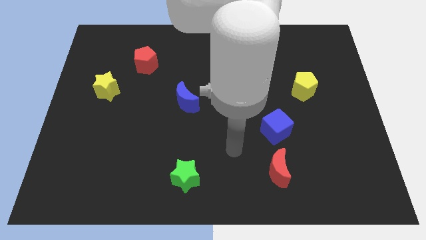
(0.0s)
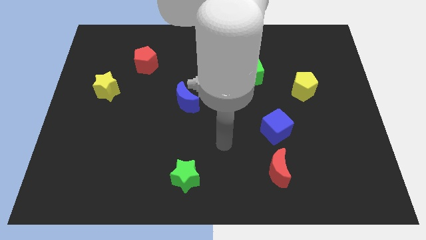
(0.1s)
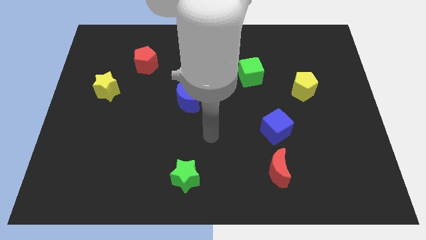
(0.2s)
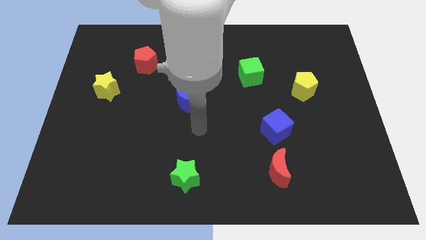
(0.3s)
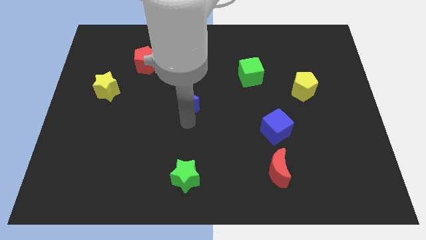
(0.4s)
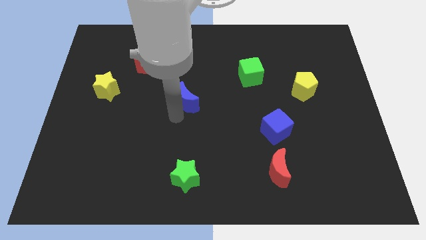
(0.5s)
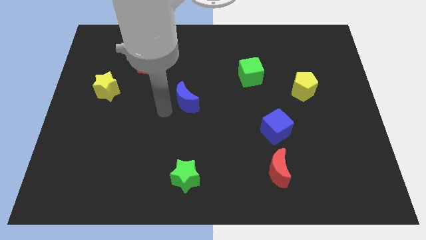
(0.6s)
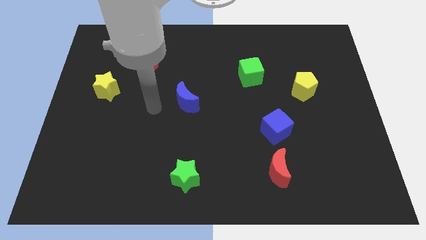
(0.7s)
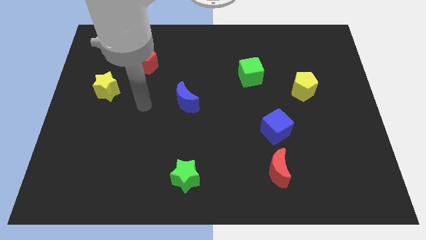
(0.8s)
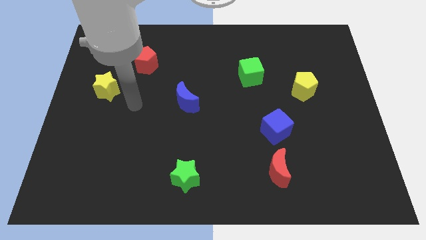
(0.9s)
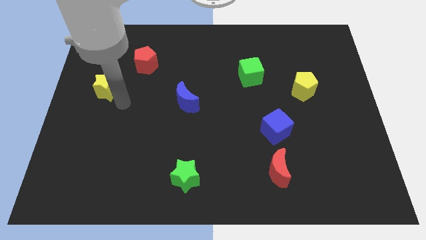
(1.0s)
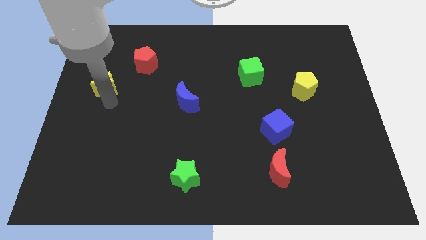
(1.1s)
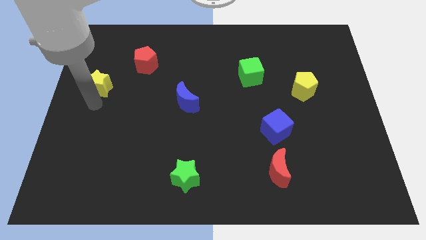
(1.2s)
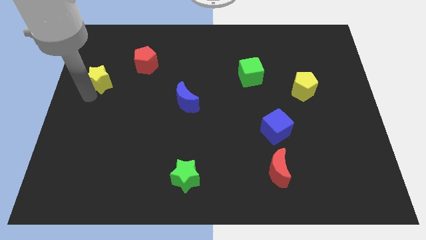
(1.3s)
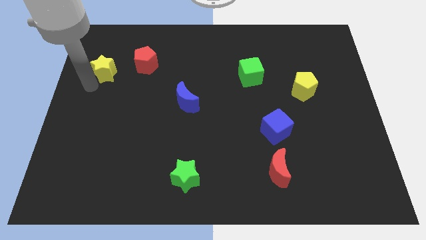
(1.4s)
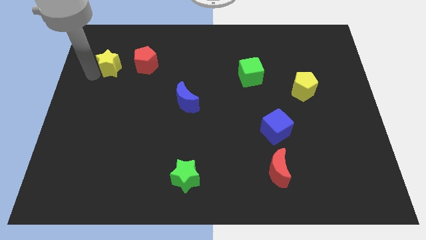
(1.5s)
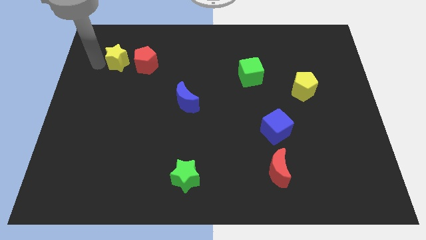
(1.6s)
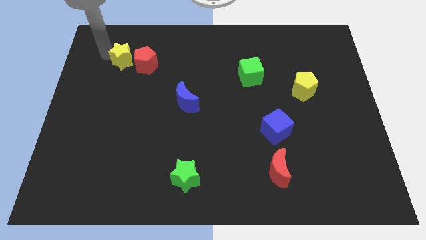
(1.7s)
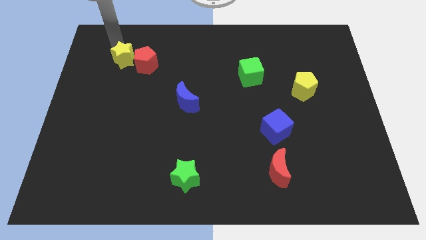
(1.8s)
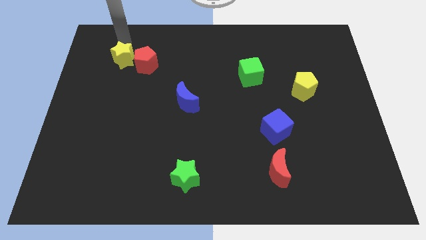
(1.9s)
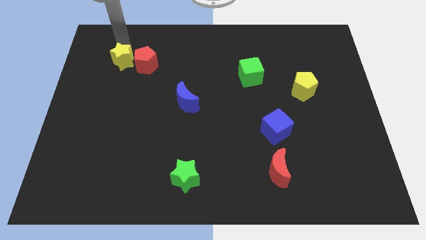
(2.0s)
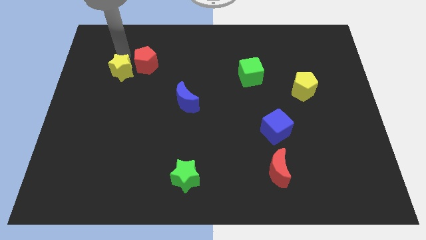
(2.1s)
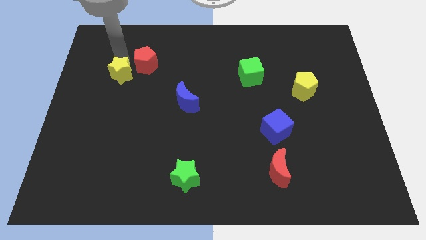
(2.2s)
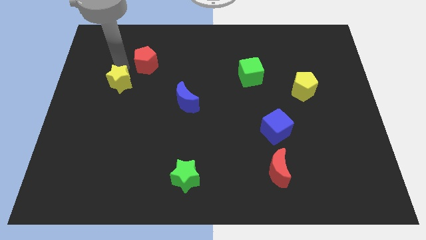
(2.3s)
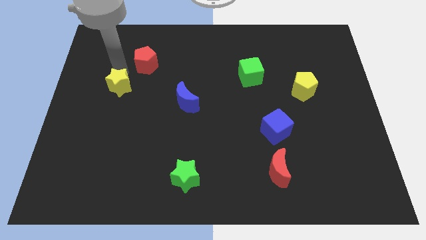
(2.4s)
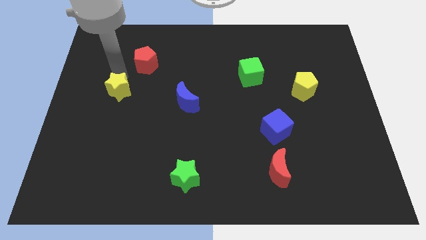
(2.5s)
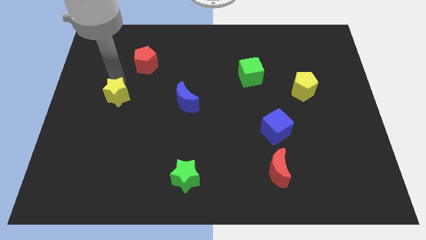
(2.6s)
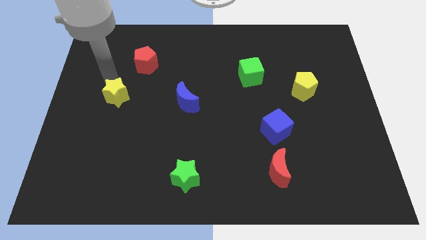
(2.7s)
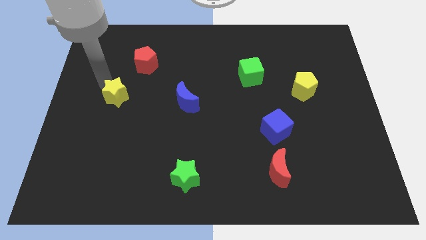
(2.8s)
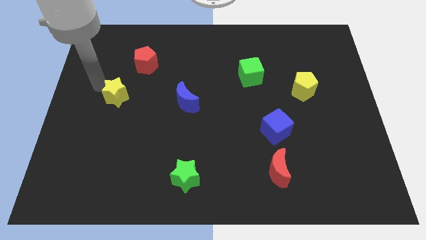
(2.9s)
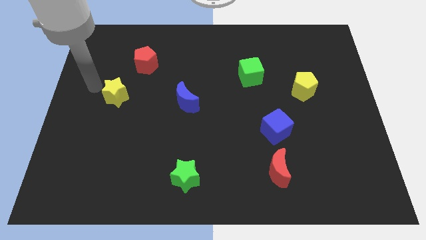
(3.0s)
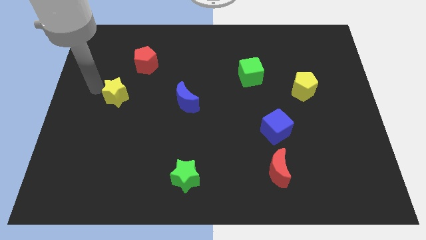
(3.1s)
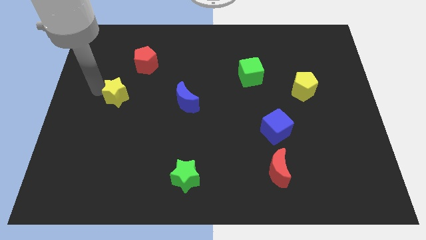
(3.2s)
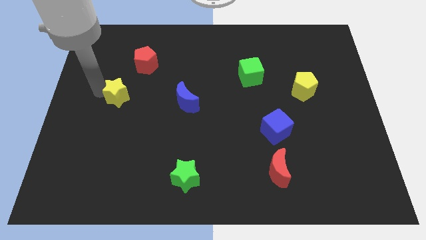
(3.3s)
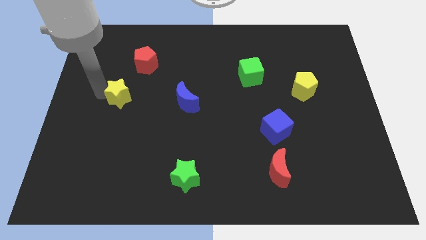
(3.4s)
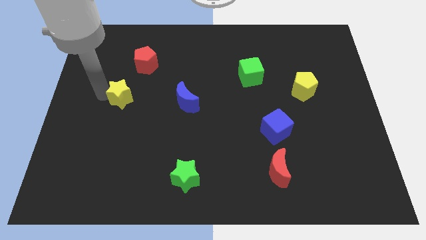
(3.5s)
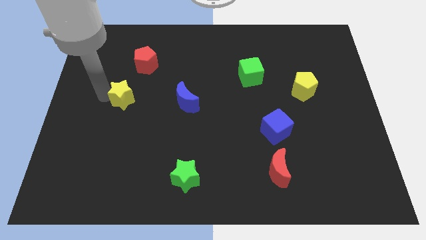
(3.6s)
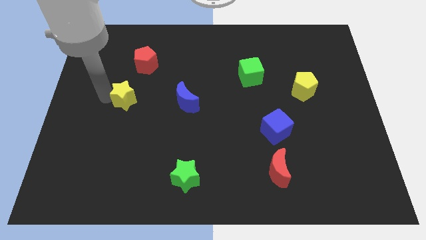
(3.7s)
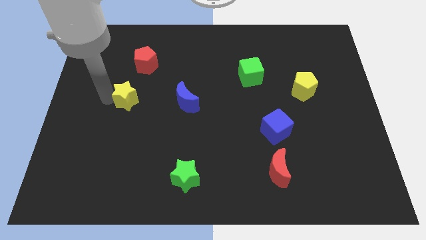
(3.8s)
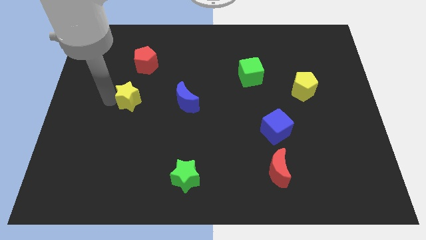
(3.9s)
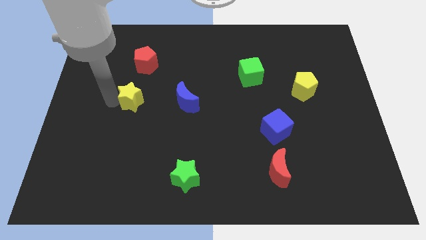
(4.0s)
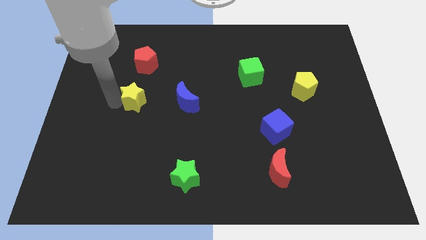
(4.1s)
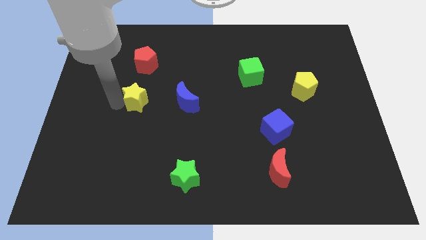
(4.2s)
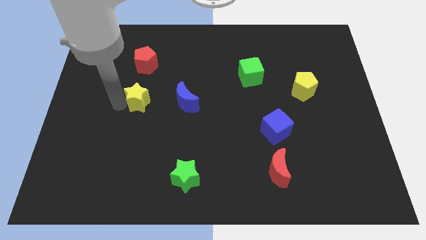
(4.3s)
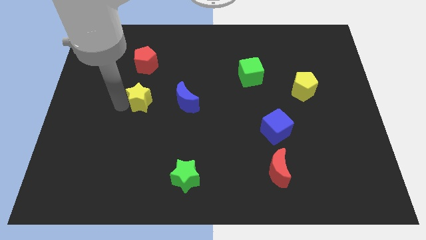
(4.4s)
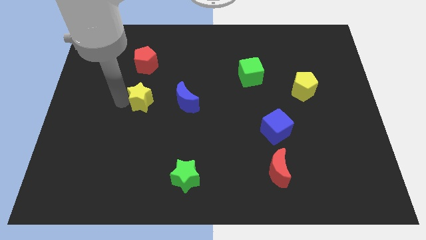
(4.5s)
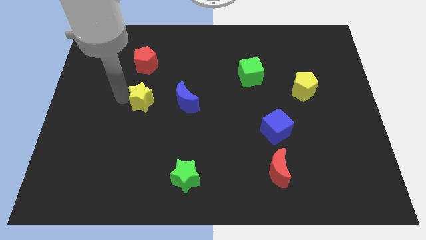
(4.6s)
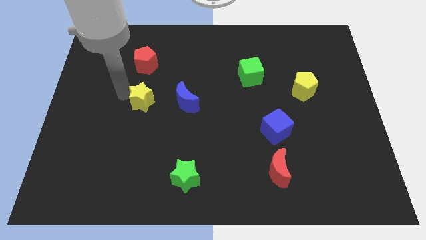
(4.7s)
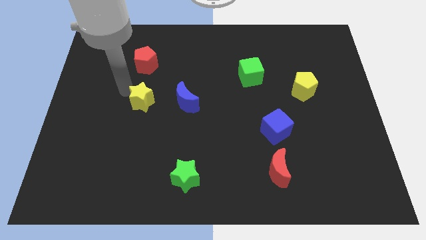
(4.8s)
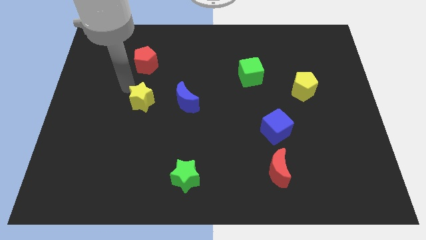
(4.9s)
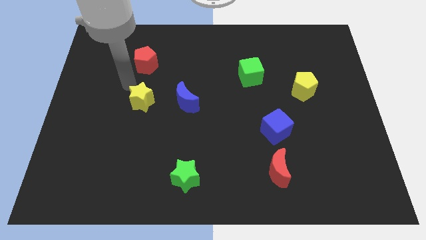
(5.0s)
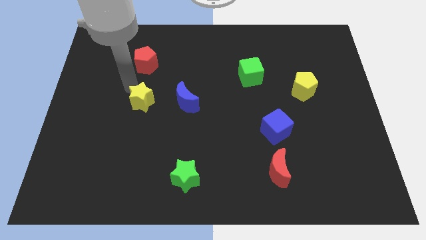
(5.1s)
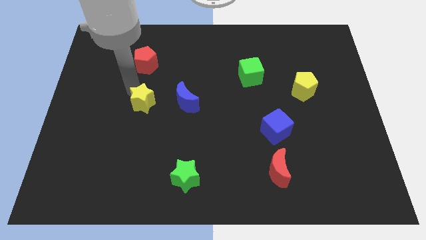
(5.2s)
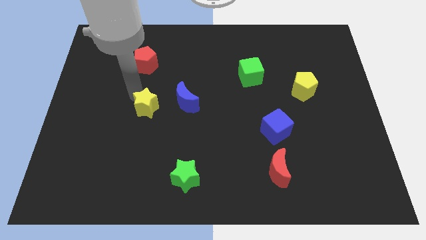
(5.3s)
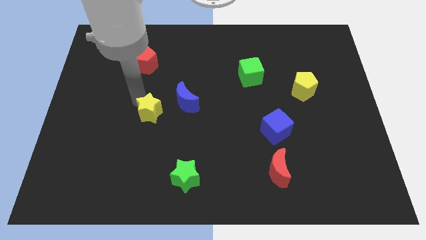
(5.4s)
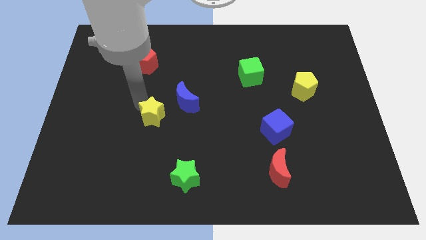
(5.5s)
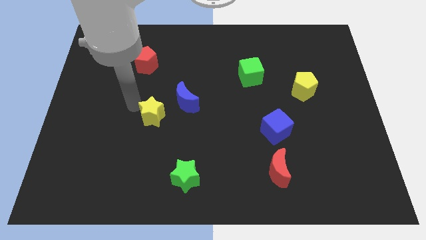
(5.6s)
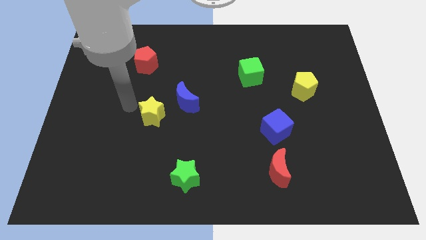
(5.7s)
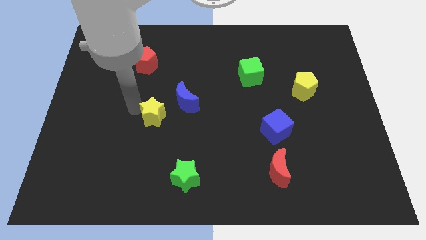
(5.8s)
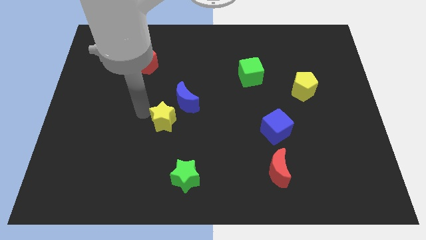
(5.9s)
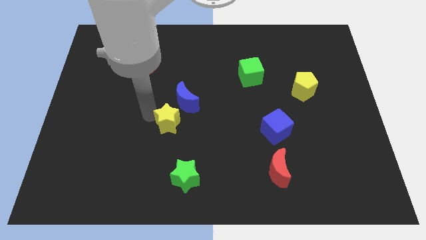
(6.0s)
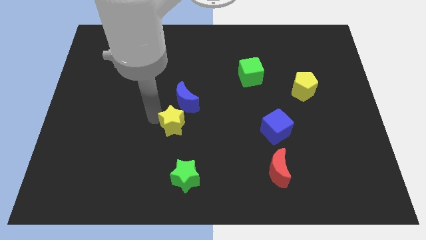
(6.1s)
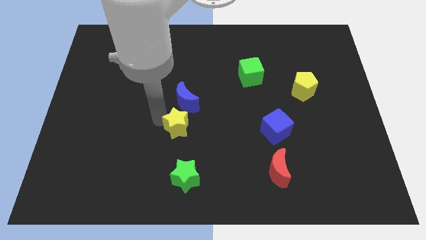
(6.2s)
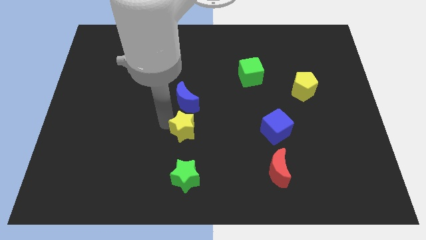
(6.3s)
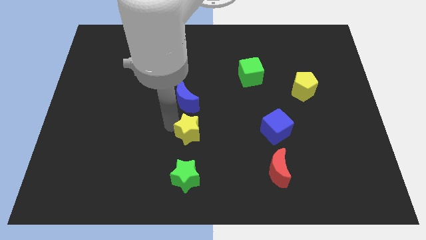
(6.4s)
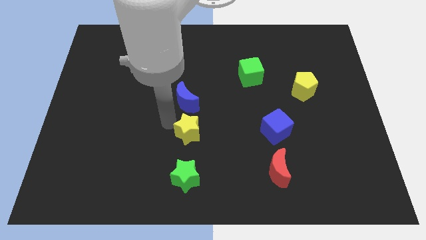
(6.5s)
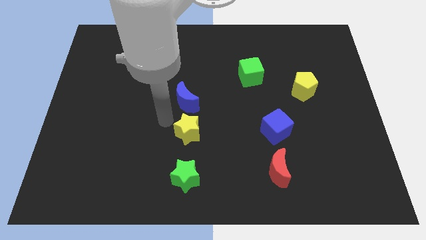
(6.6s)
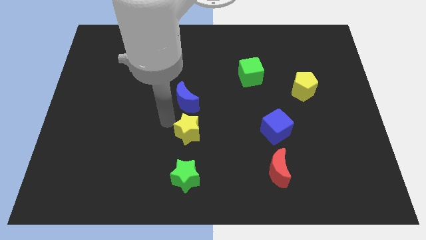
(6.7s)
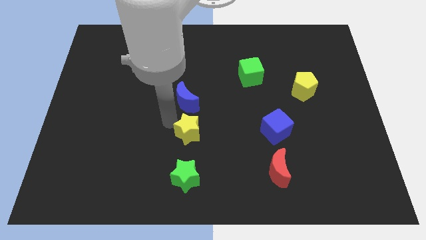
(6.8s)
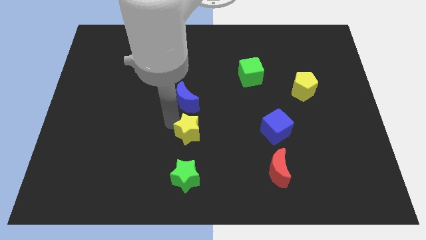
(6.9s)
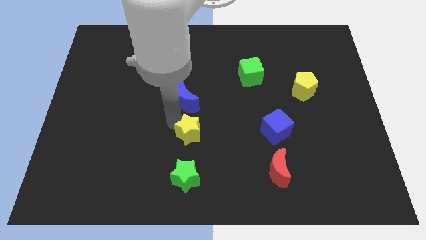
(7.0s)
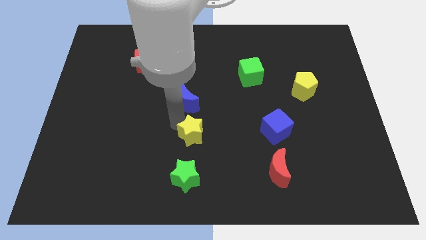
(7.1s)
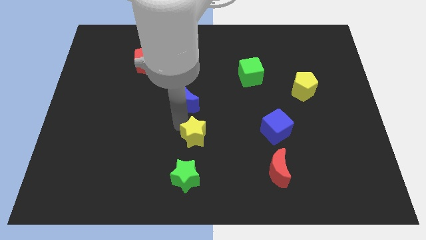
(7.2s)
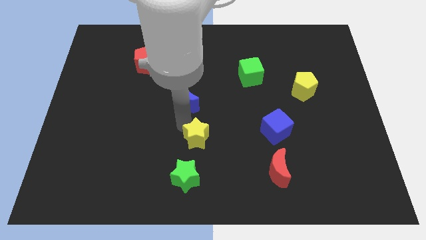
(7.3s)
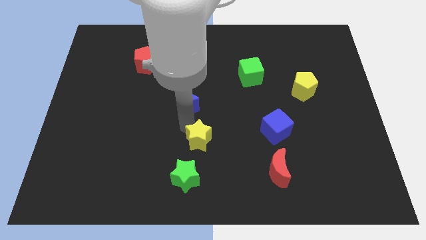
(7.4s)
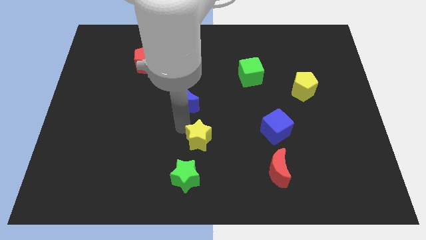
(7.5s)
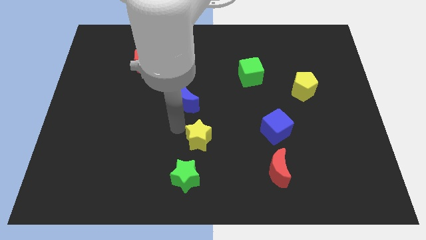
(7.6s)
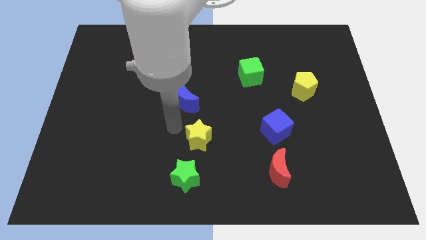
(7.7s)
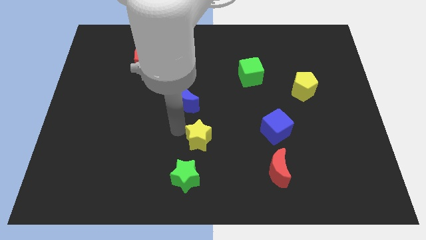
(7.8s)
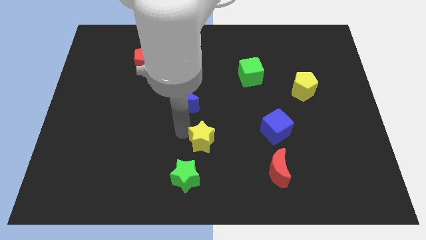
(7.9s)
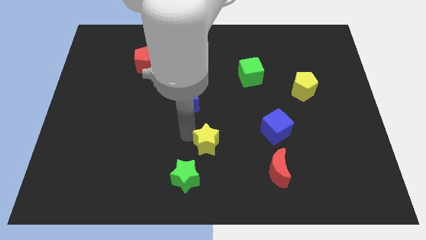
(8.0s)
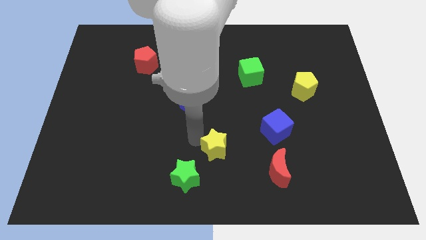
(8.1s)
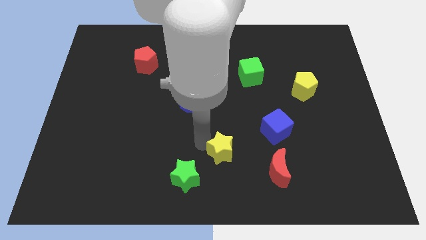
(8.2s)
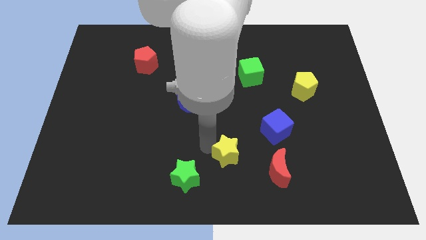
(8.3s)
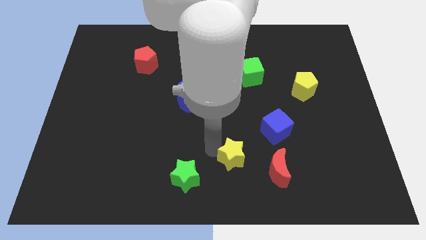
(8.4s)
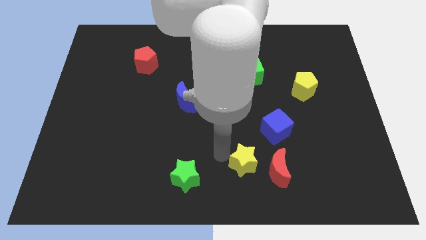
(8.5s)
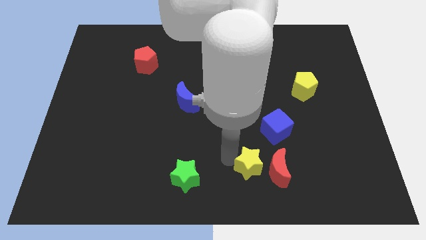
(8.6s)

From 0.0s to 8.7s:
put the yellow star next to the red moon
